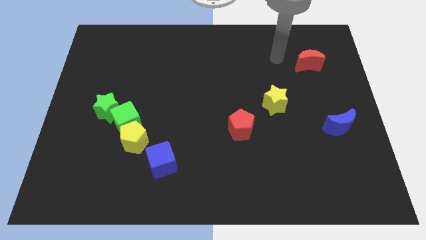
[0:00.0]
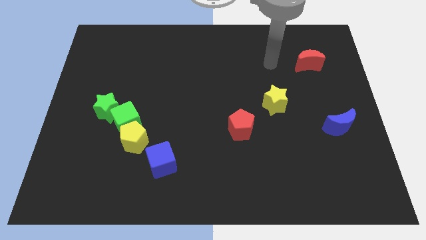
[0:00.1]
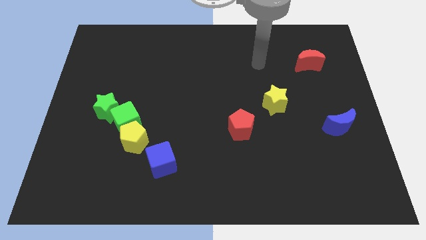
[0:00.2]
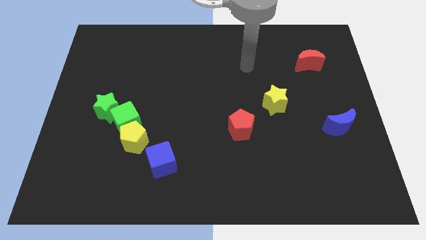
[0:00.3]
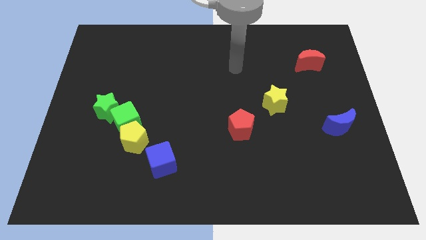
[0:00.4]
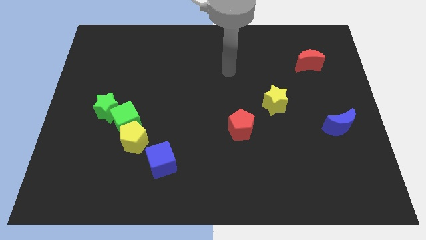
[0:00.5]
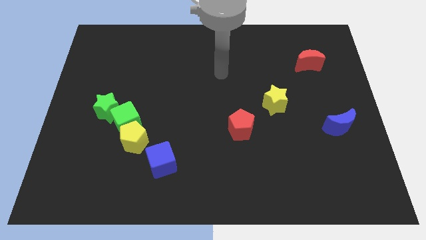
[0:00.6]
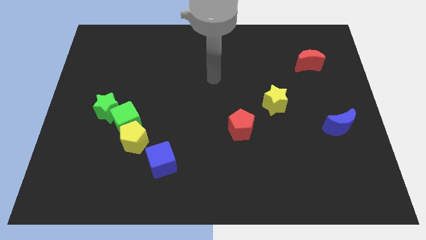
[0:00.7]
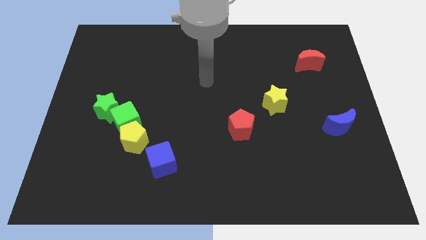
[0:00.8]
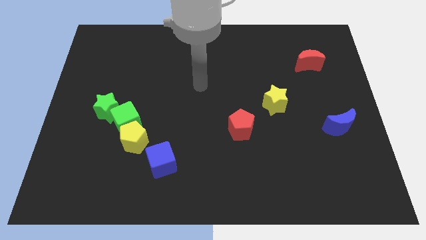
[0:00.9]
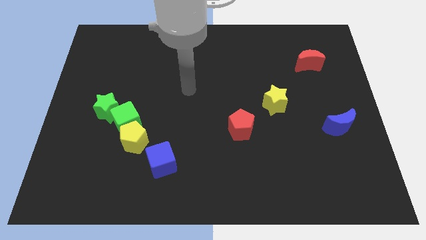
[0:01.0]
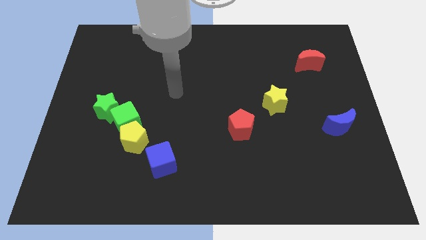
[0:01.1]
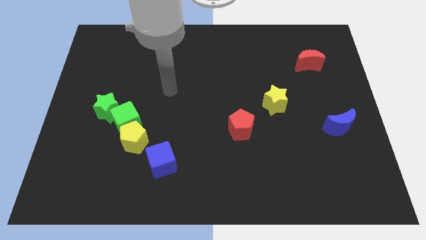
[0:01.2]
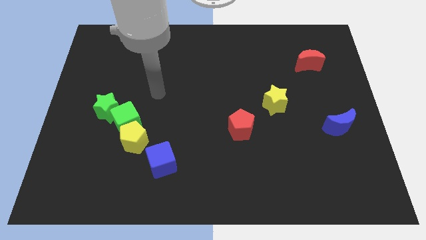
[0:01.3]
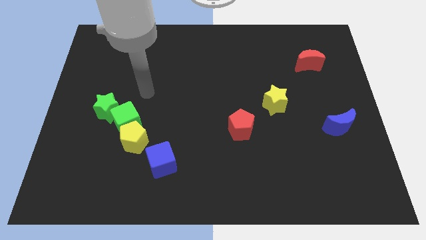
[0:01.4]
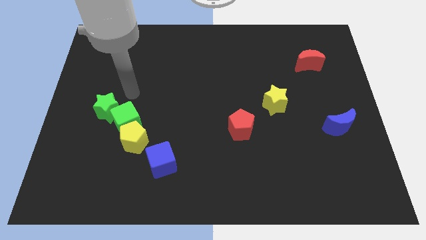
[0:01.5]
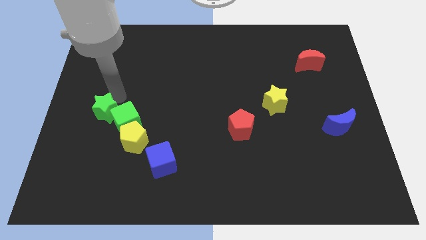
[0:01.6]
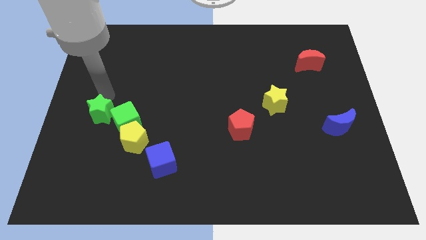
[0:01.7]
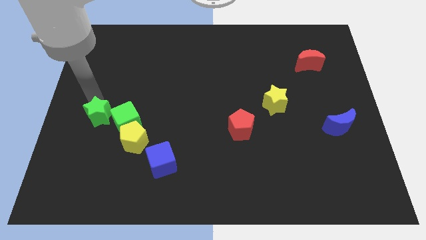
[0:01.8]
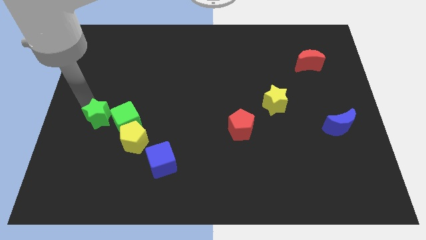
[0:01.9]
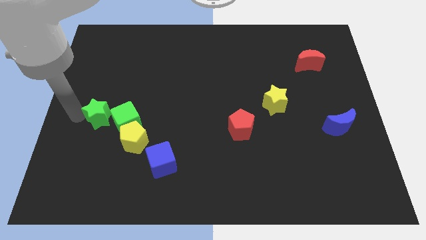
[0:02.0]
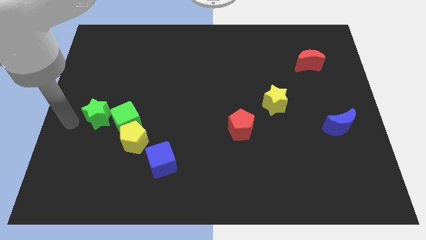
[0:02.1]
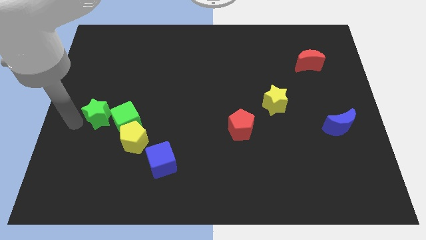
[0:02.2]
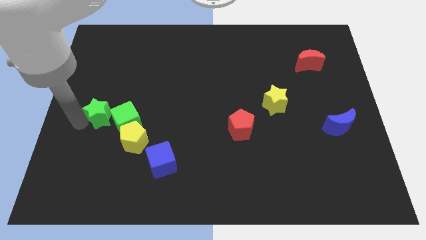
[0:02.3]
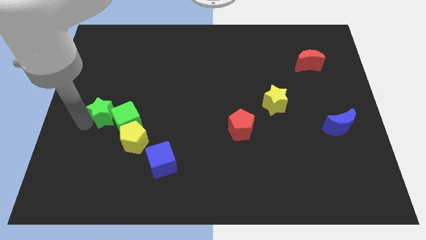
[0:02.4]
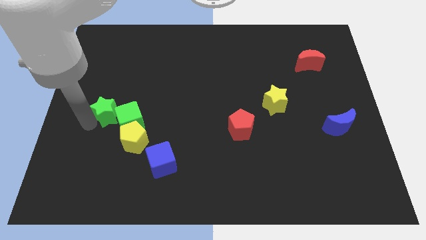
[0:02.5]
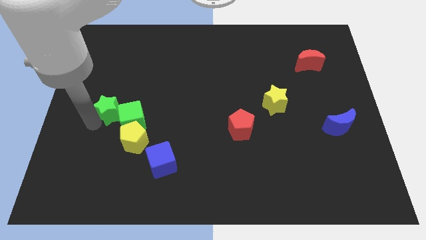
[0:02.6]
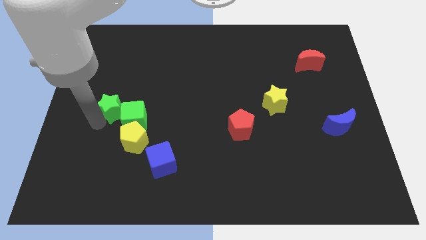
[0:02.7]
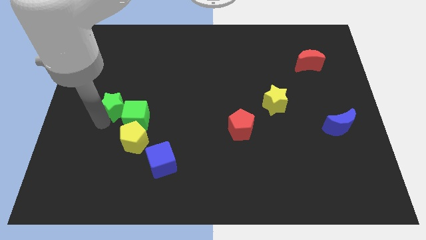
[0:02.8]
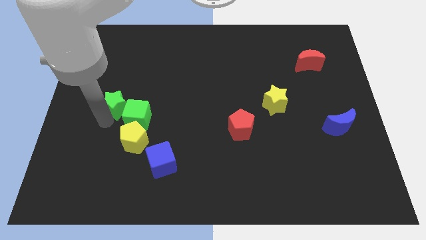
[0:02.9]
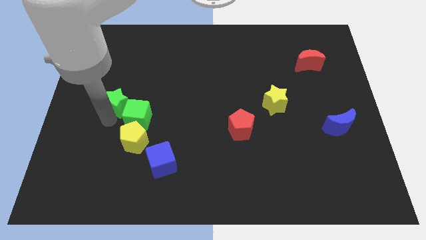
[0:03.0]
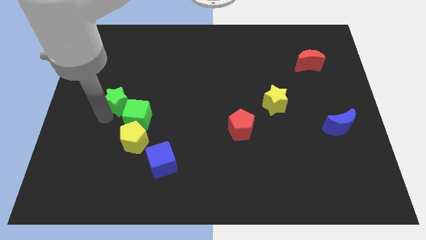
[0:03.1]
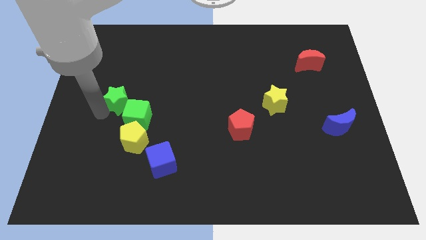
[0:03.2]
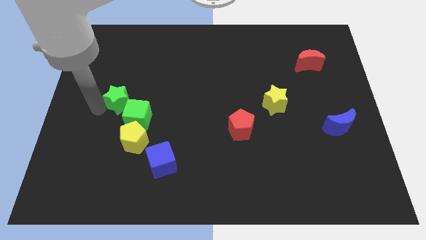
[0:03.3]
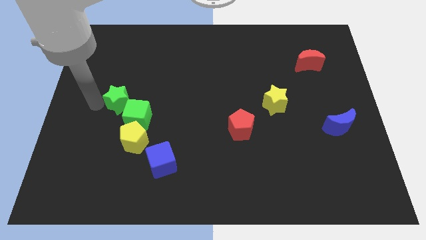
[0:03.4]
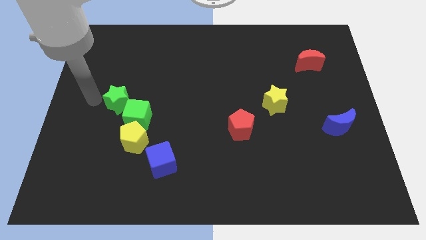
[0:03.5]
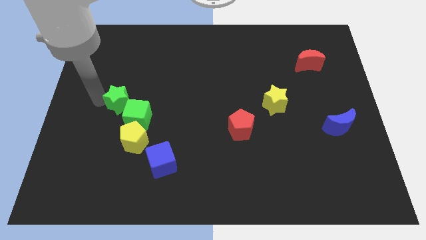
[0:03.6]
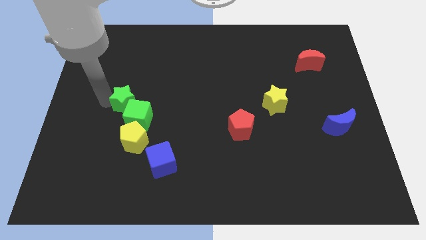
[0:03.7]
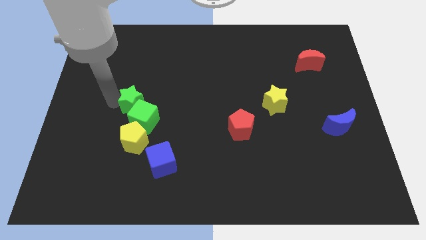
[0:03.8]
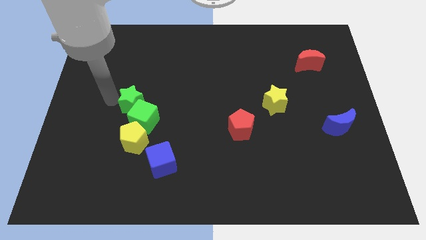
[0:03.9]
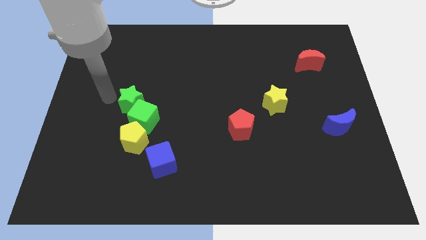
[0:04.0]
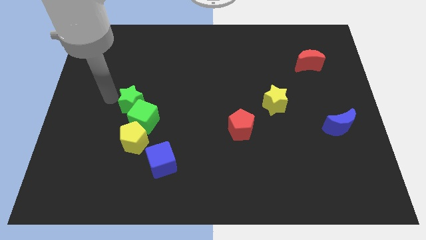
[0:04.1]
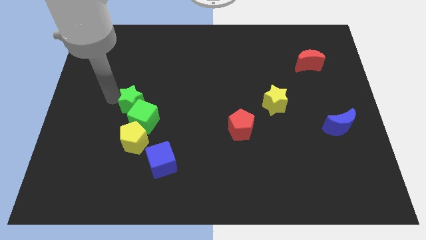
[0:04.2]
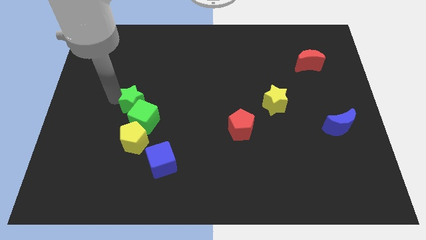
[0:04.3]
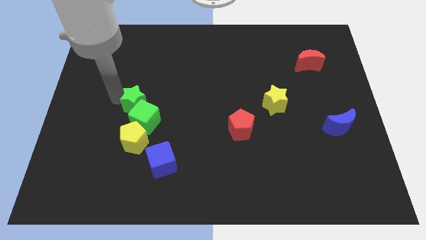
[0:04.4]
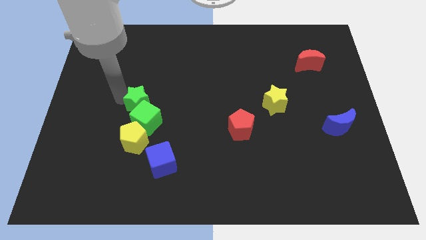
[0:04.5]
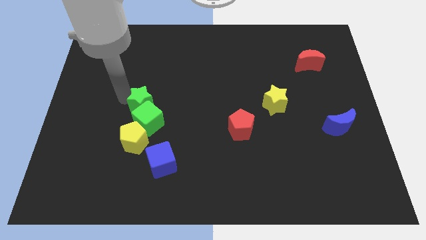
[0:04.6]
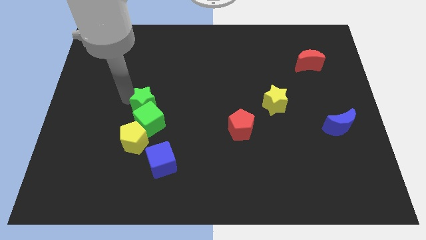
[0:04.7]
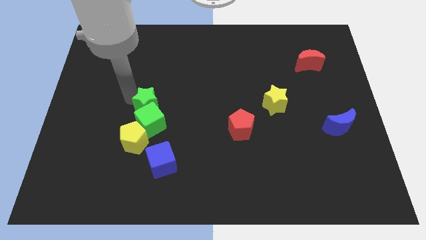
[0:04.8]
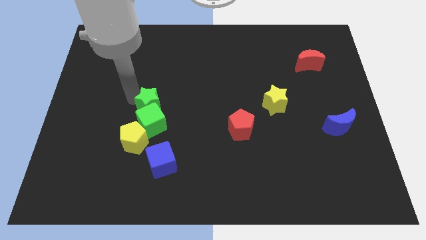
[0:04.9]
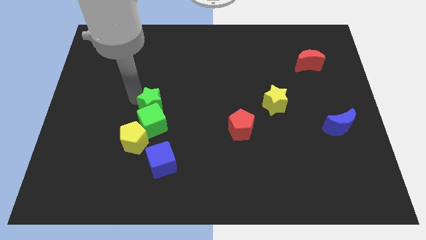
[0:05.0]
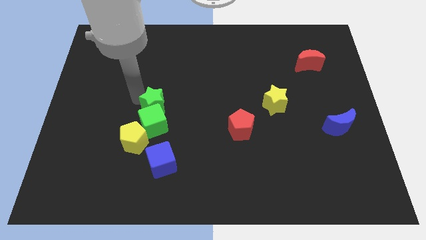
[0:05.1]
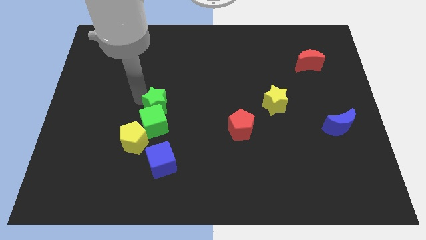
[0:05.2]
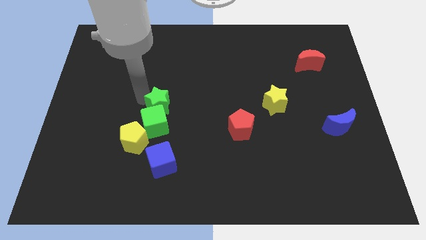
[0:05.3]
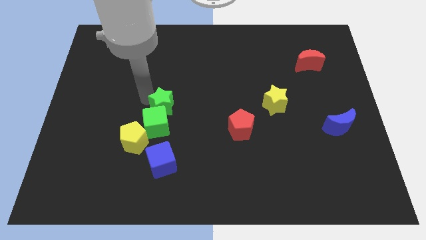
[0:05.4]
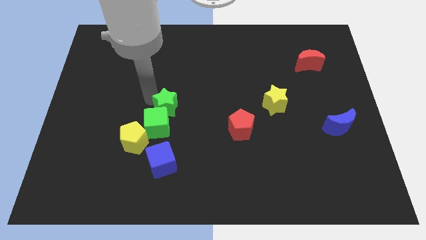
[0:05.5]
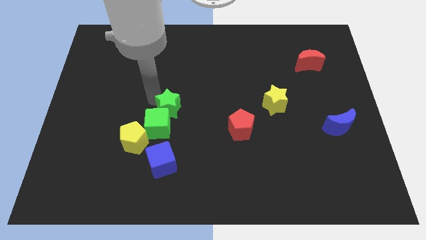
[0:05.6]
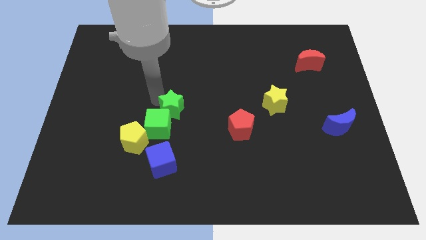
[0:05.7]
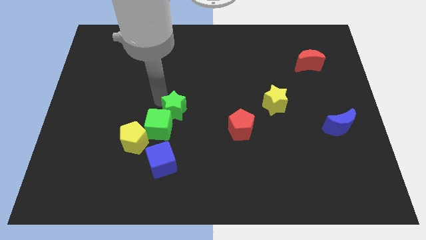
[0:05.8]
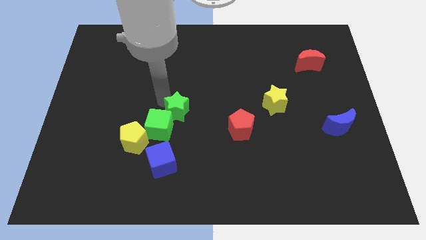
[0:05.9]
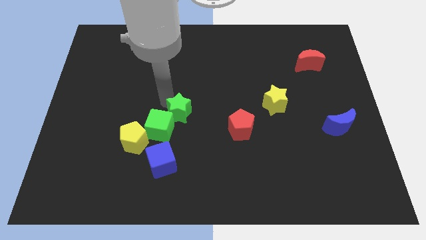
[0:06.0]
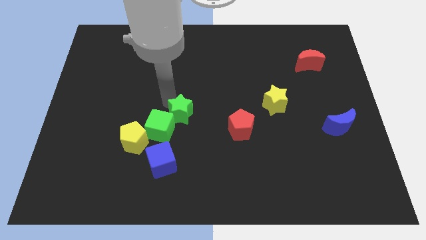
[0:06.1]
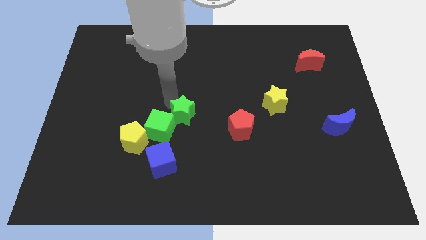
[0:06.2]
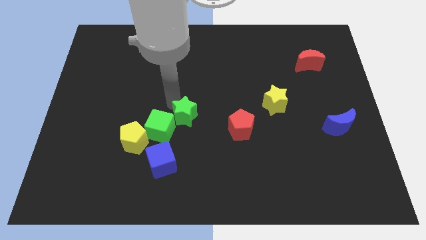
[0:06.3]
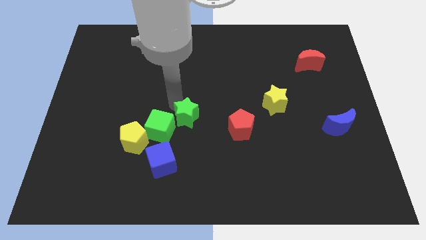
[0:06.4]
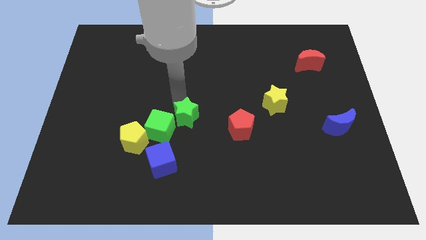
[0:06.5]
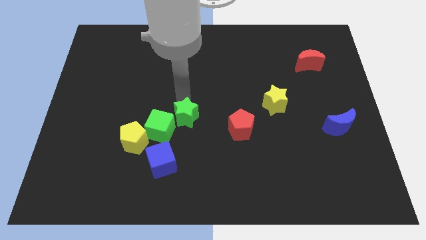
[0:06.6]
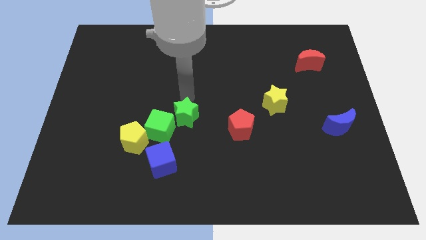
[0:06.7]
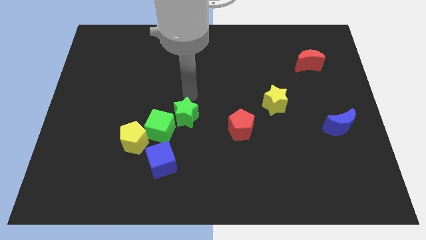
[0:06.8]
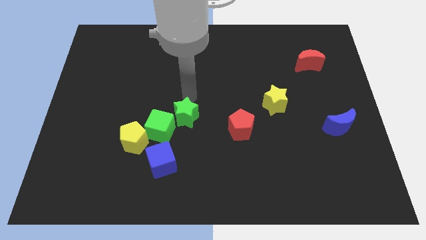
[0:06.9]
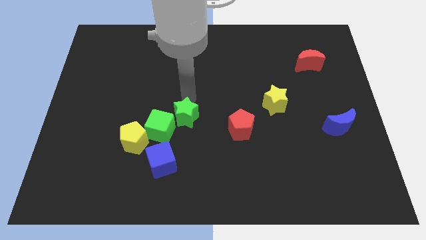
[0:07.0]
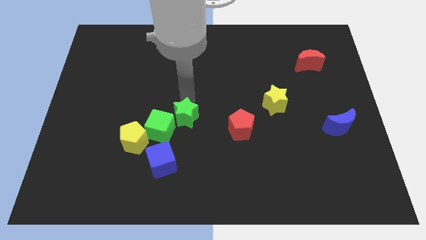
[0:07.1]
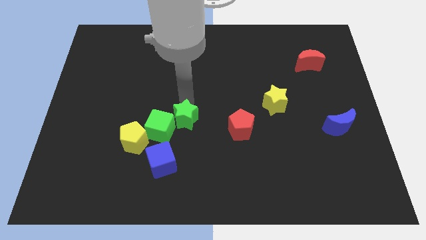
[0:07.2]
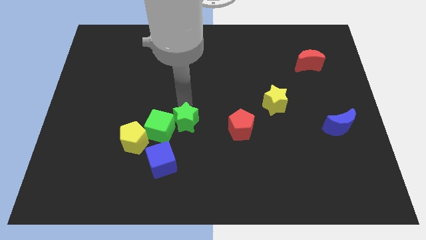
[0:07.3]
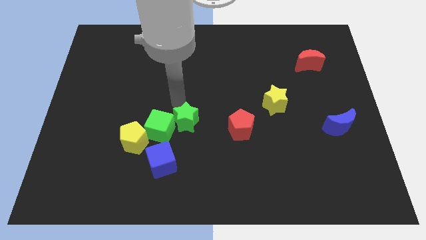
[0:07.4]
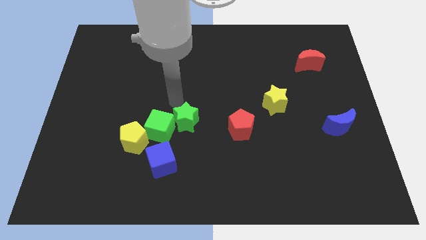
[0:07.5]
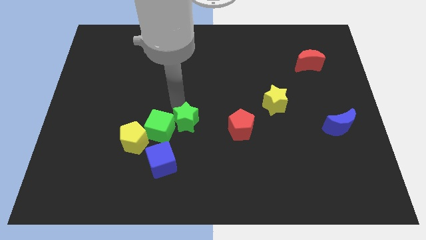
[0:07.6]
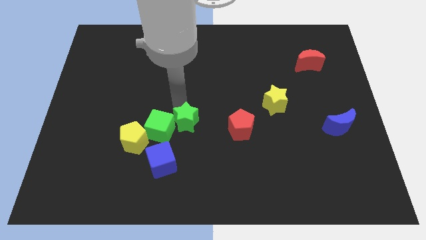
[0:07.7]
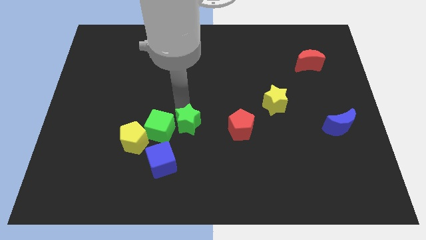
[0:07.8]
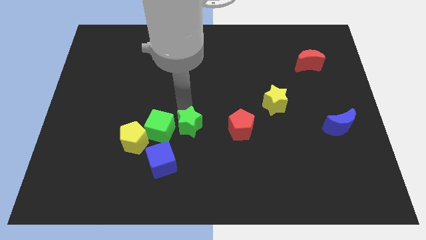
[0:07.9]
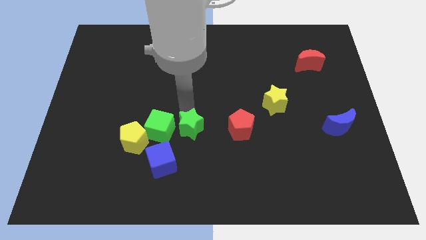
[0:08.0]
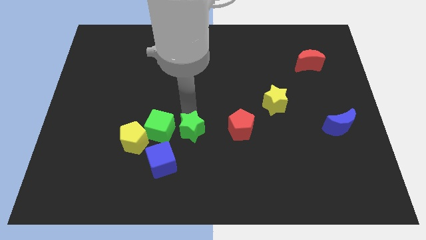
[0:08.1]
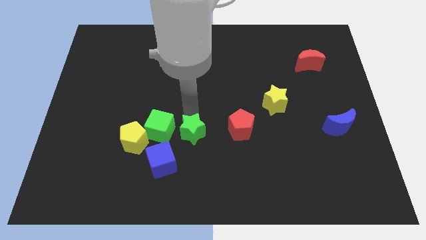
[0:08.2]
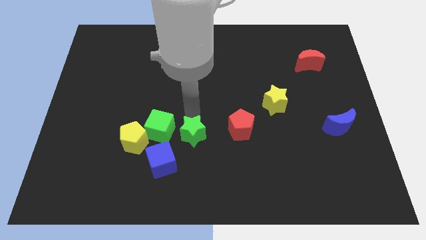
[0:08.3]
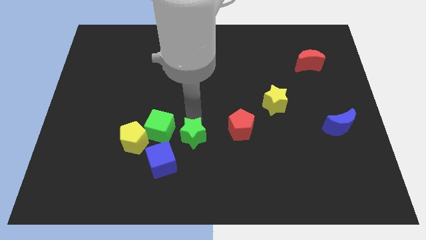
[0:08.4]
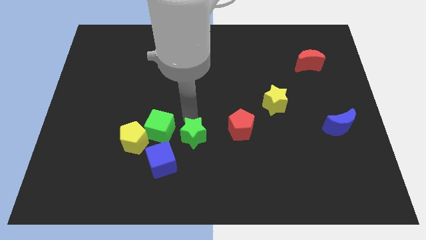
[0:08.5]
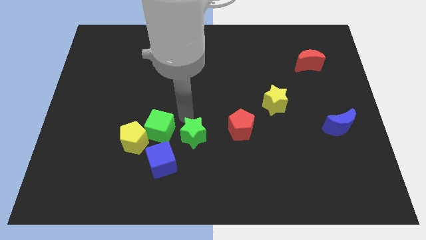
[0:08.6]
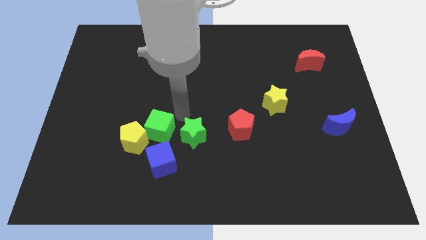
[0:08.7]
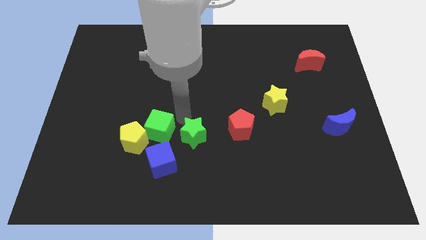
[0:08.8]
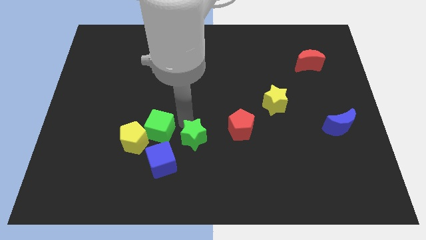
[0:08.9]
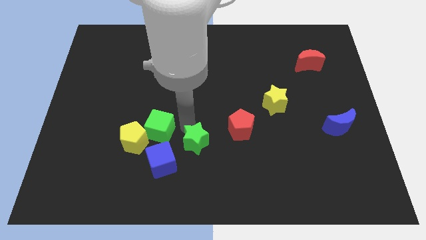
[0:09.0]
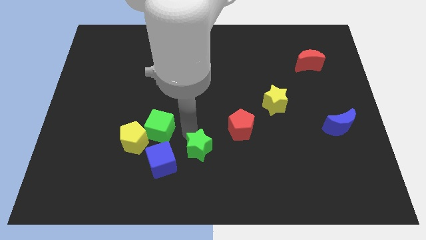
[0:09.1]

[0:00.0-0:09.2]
move the green star right of the blue cube
